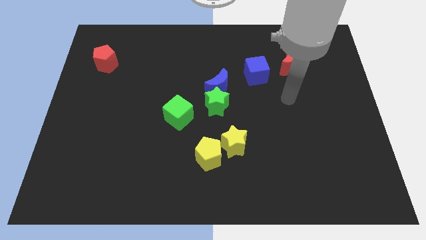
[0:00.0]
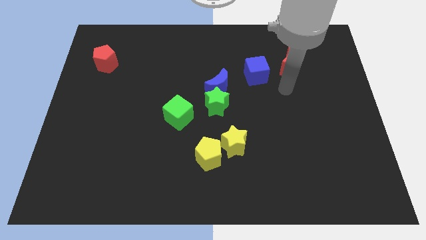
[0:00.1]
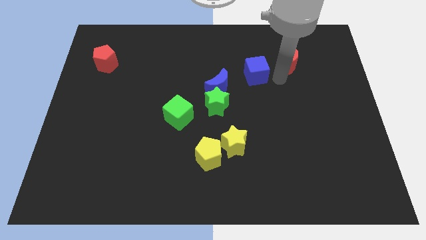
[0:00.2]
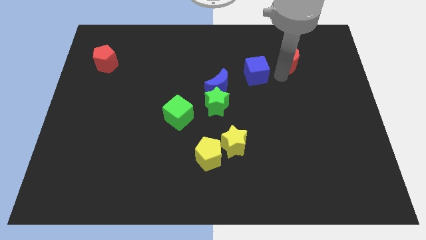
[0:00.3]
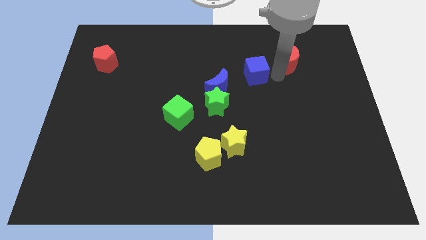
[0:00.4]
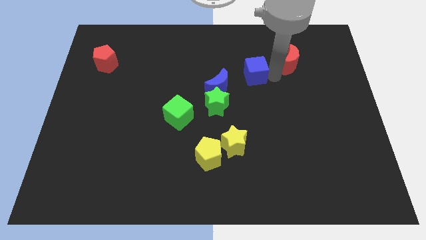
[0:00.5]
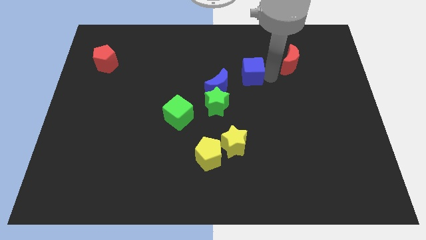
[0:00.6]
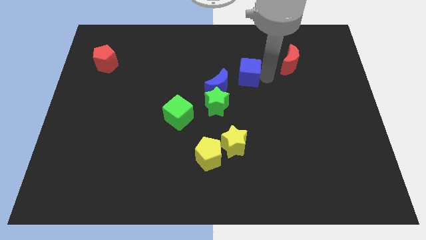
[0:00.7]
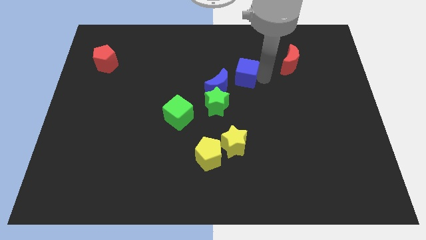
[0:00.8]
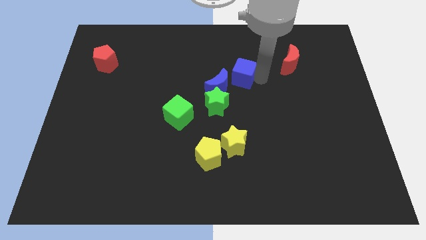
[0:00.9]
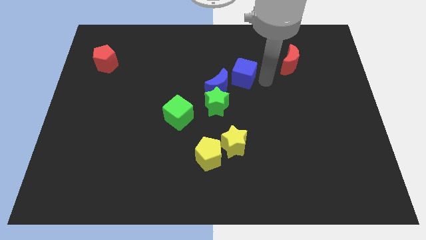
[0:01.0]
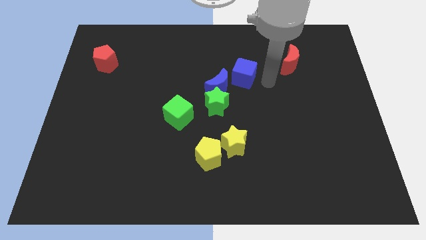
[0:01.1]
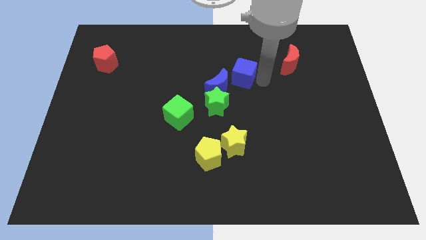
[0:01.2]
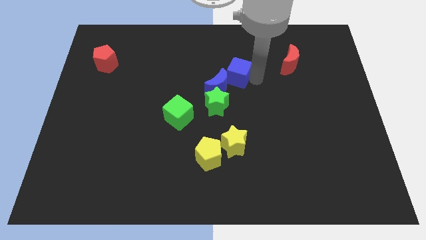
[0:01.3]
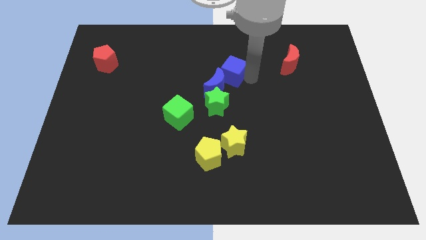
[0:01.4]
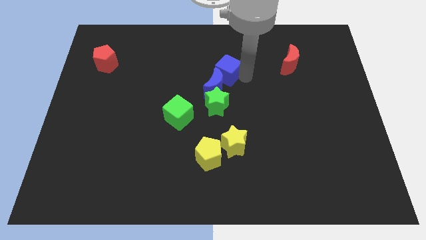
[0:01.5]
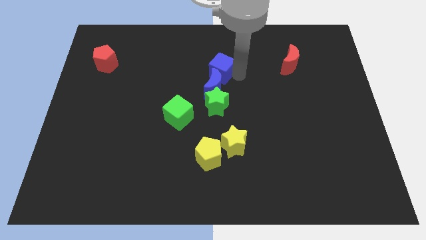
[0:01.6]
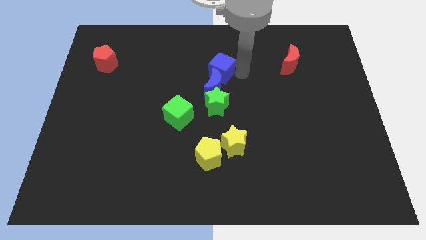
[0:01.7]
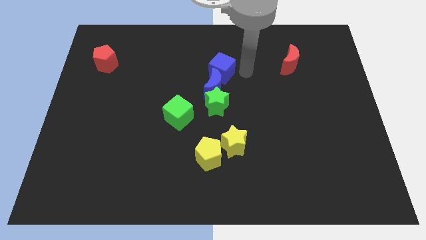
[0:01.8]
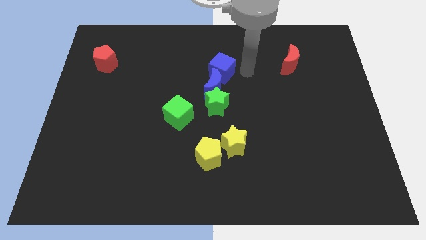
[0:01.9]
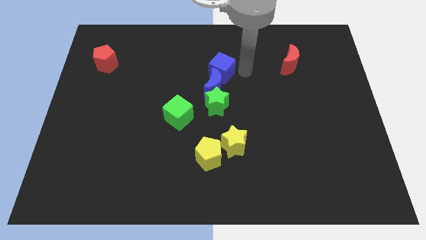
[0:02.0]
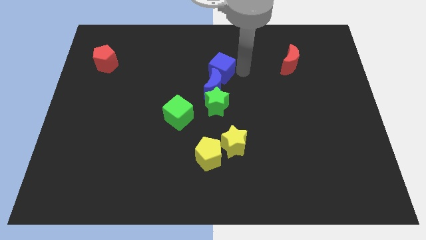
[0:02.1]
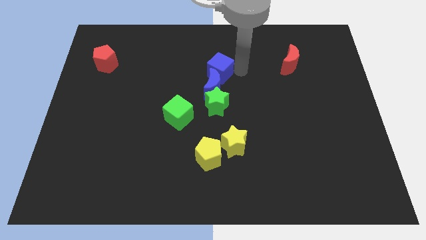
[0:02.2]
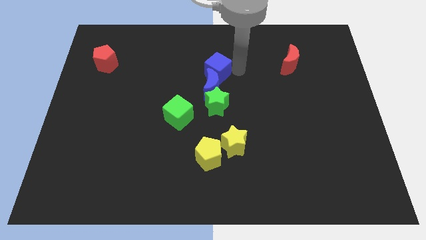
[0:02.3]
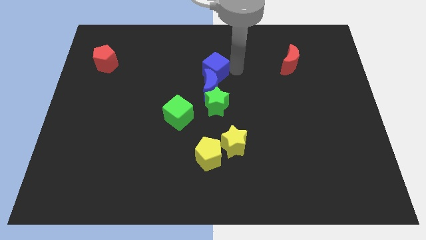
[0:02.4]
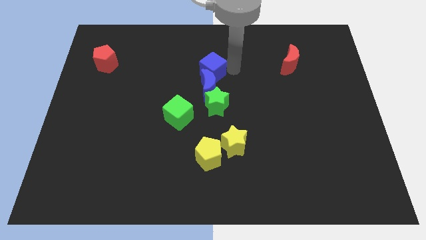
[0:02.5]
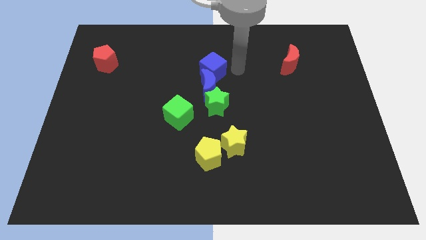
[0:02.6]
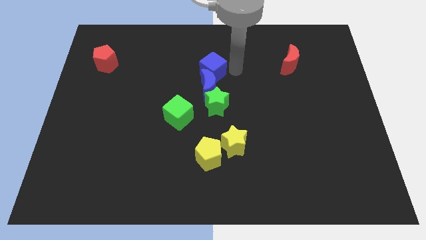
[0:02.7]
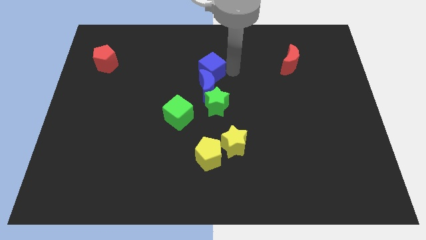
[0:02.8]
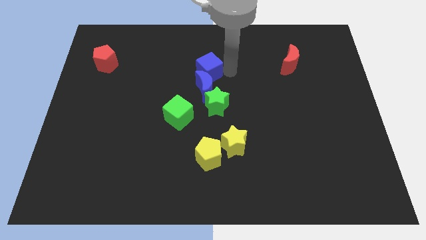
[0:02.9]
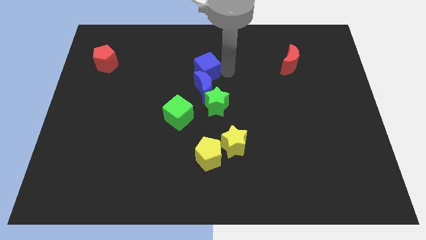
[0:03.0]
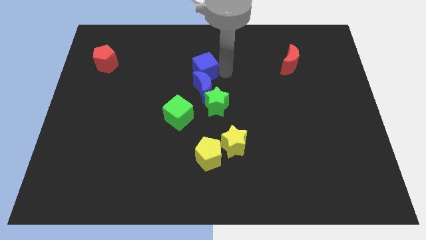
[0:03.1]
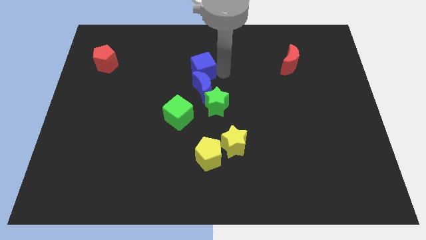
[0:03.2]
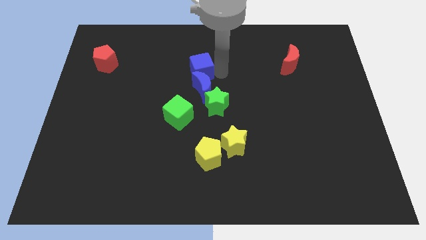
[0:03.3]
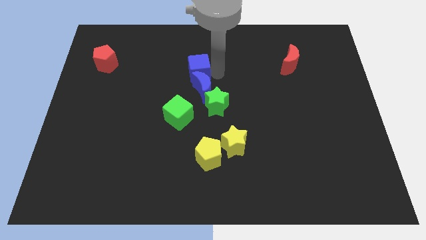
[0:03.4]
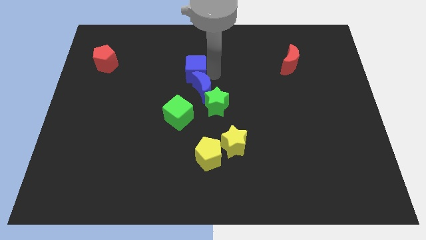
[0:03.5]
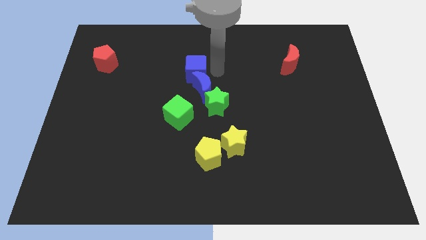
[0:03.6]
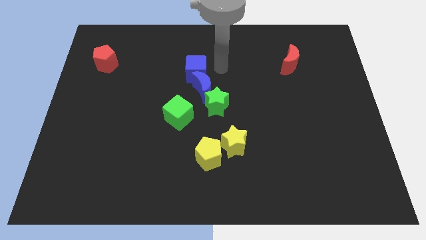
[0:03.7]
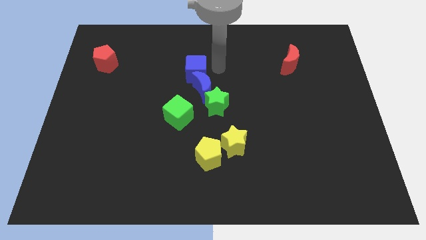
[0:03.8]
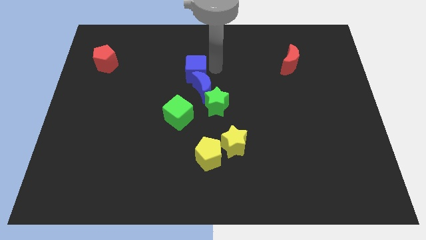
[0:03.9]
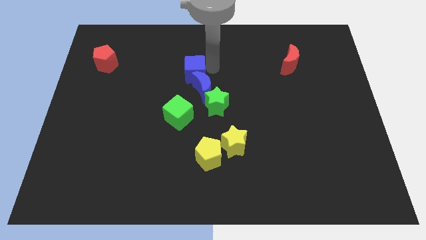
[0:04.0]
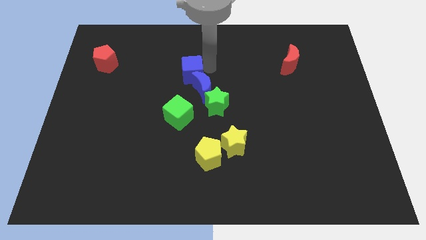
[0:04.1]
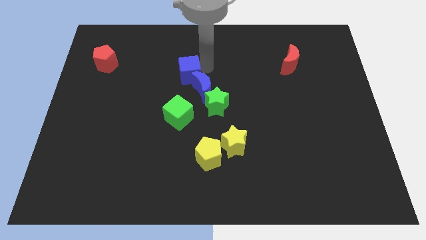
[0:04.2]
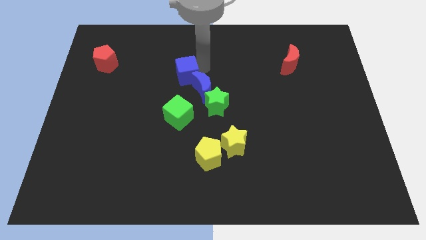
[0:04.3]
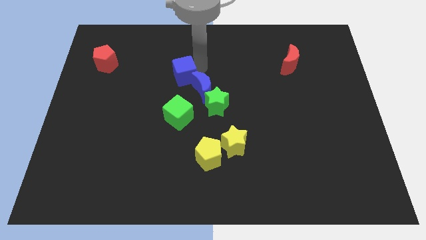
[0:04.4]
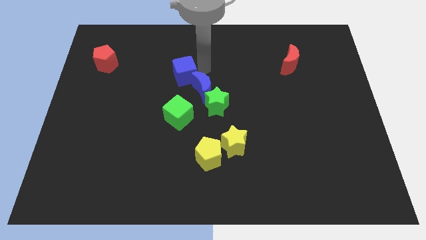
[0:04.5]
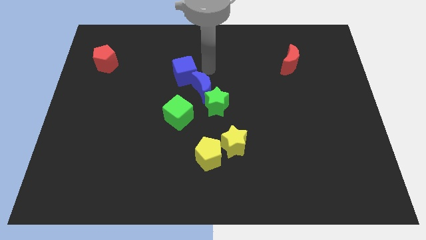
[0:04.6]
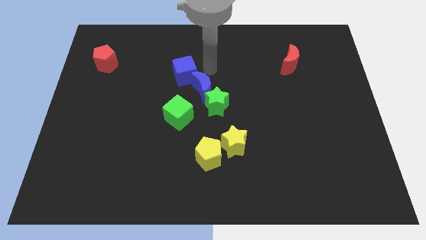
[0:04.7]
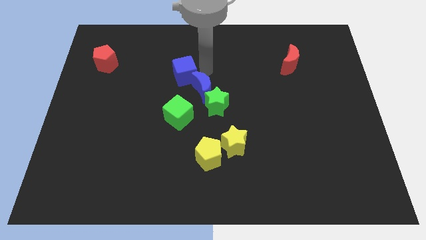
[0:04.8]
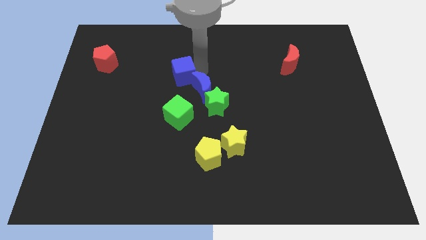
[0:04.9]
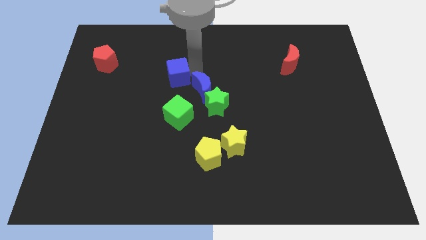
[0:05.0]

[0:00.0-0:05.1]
push the blue cube to the left

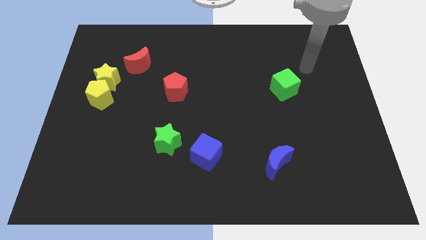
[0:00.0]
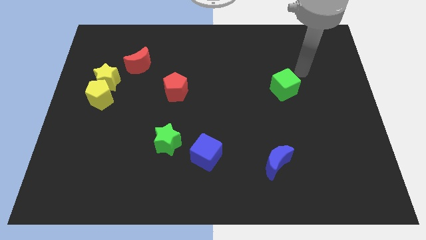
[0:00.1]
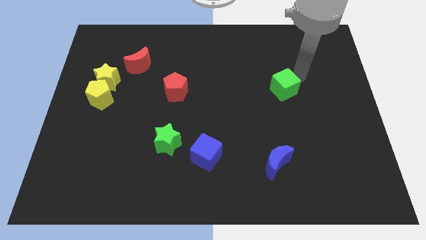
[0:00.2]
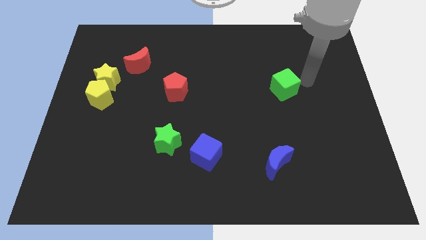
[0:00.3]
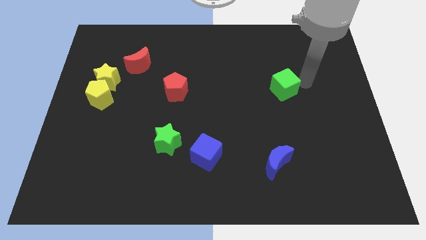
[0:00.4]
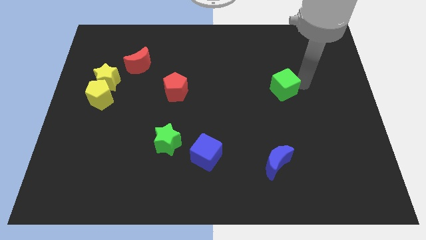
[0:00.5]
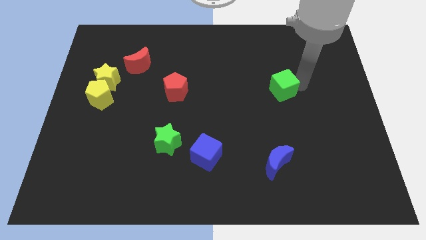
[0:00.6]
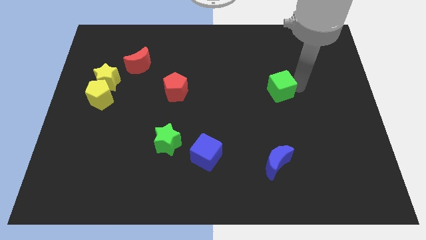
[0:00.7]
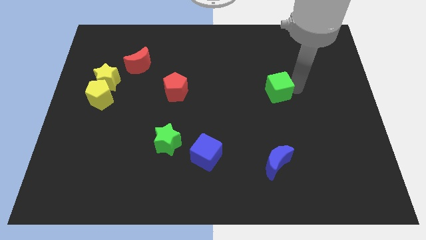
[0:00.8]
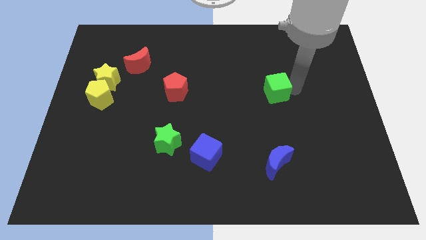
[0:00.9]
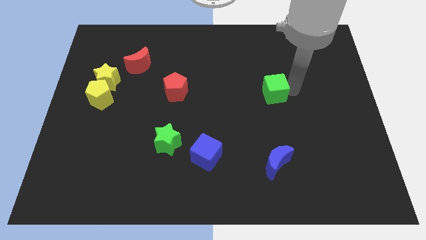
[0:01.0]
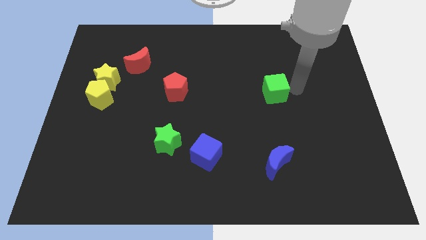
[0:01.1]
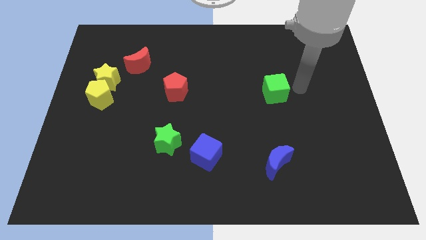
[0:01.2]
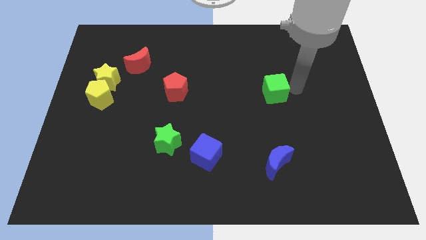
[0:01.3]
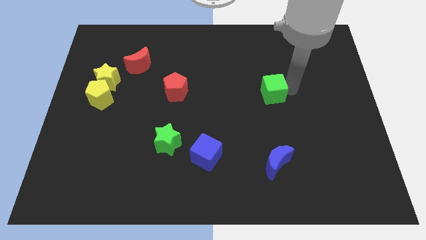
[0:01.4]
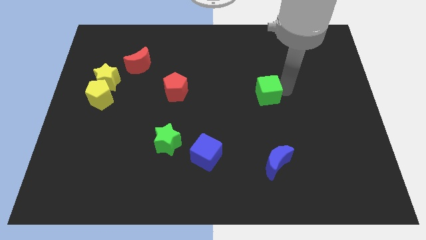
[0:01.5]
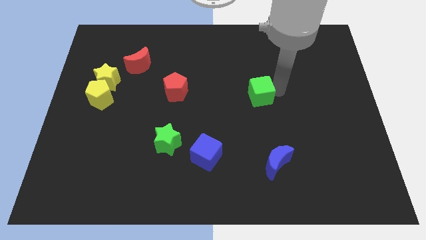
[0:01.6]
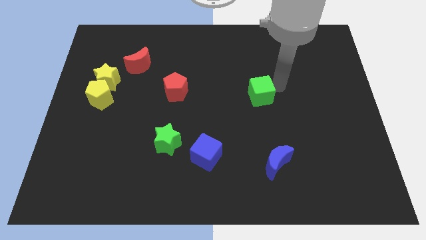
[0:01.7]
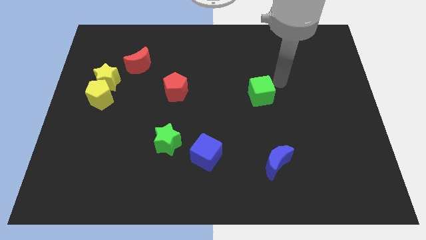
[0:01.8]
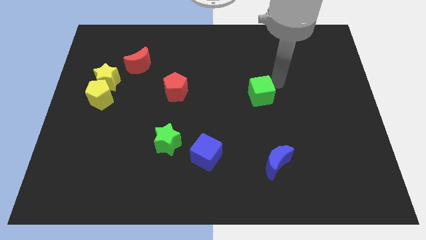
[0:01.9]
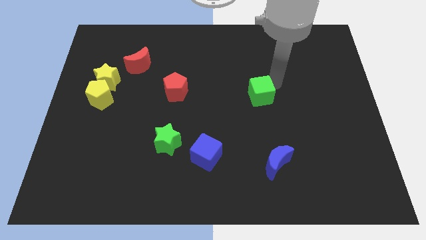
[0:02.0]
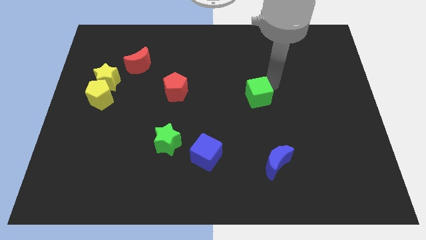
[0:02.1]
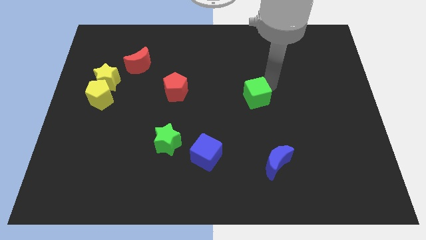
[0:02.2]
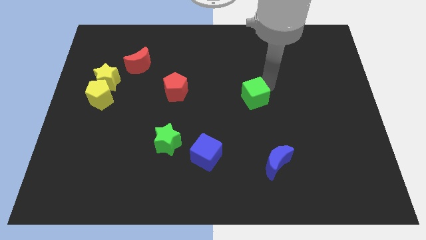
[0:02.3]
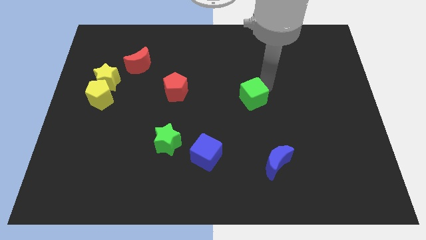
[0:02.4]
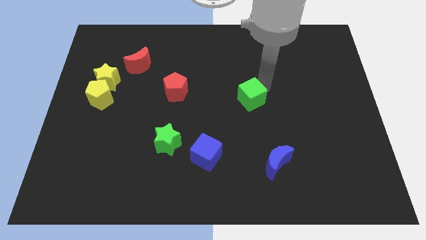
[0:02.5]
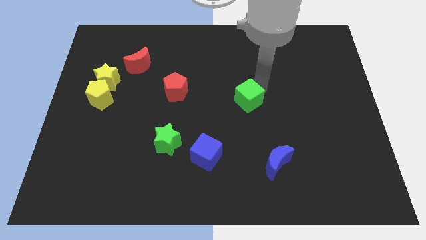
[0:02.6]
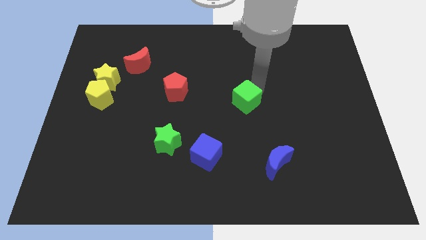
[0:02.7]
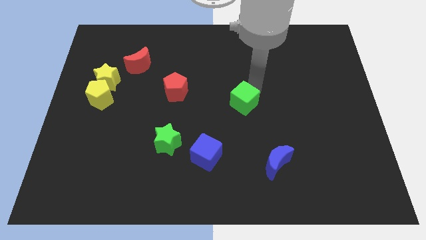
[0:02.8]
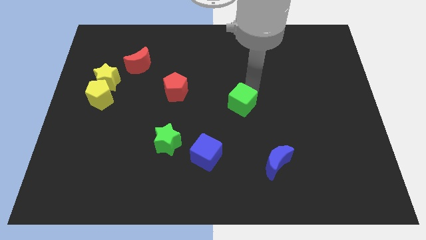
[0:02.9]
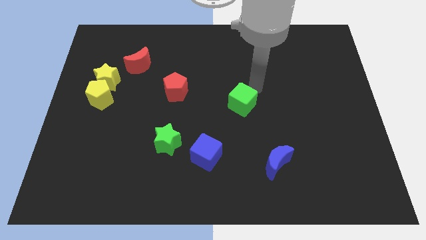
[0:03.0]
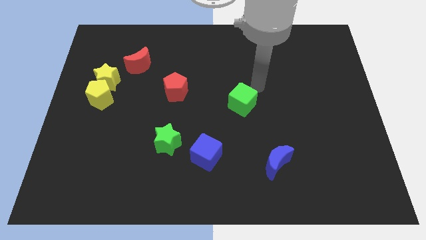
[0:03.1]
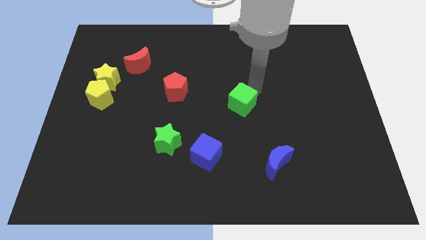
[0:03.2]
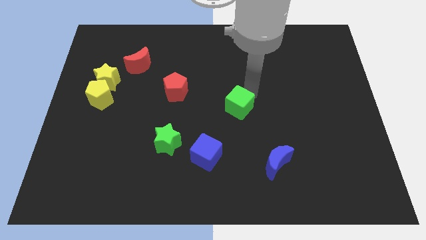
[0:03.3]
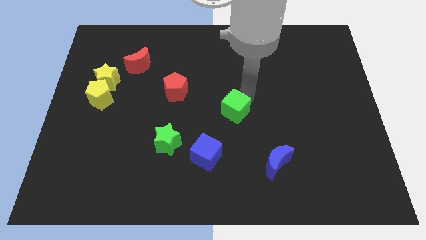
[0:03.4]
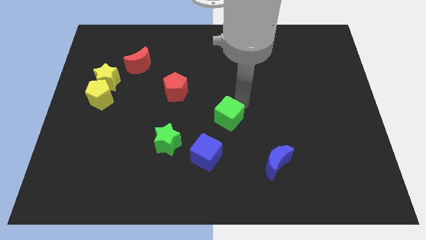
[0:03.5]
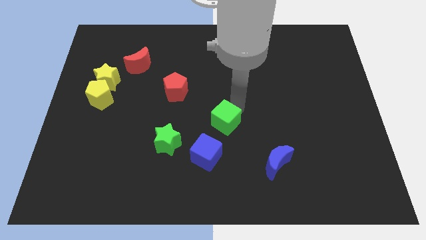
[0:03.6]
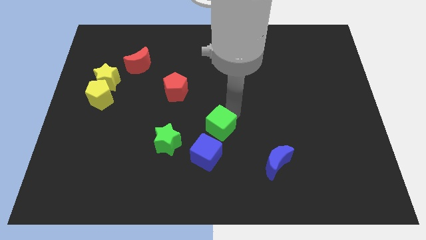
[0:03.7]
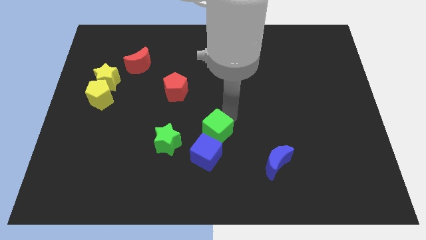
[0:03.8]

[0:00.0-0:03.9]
slide the green cube downwards and to the left diagonally
